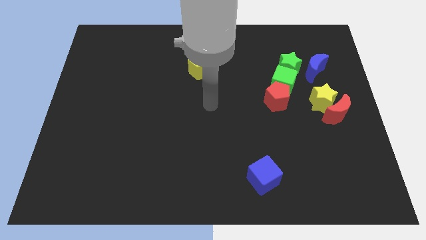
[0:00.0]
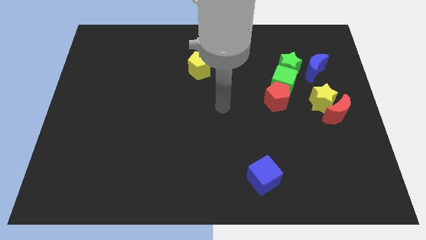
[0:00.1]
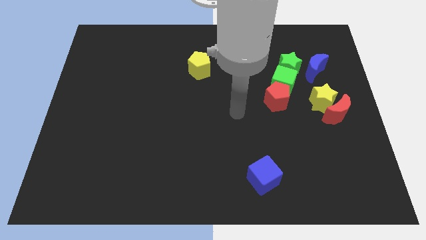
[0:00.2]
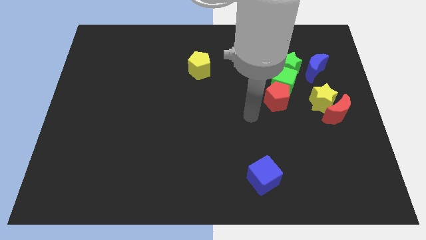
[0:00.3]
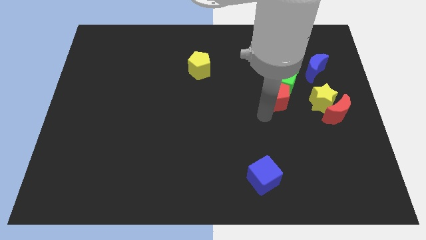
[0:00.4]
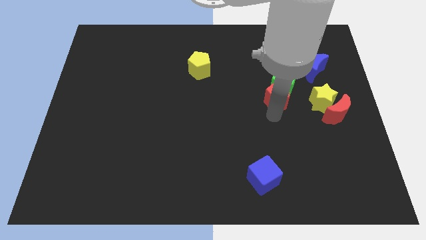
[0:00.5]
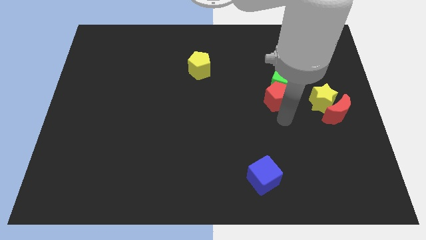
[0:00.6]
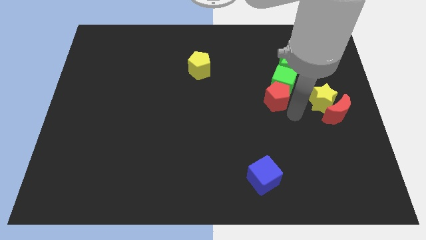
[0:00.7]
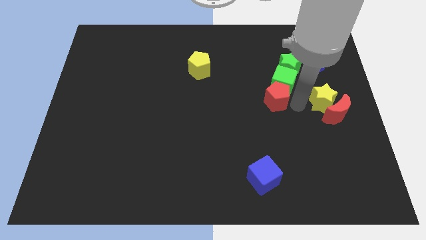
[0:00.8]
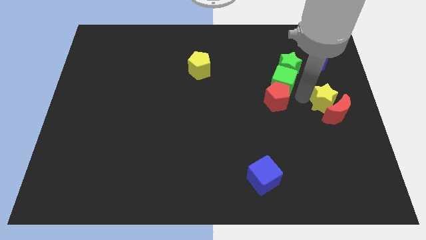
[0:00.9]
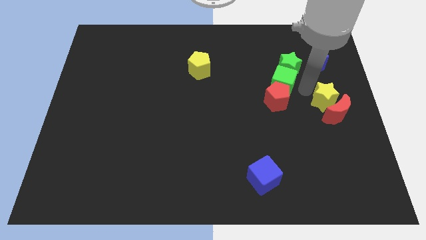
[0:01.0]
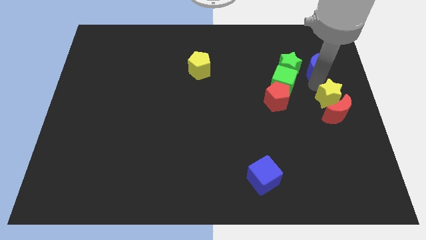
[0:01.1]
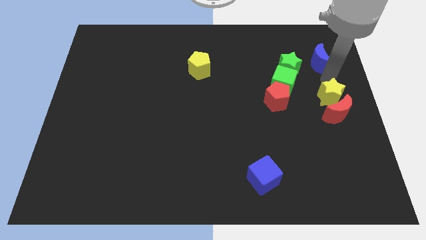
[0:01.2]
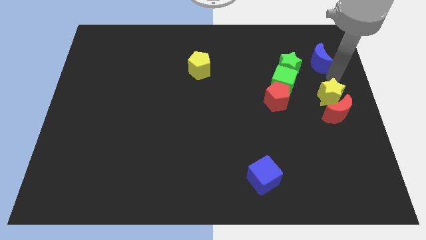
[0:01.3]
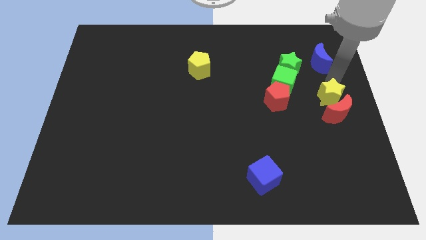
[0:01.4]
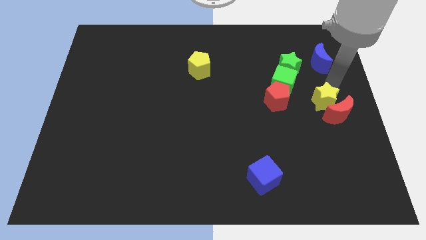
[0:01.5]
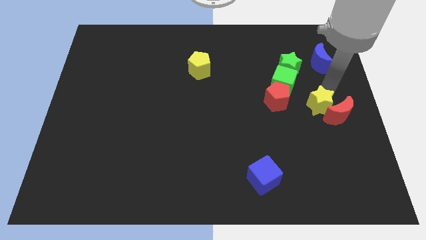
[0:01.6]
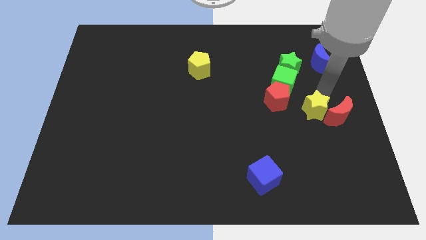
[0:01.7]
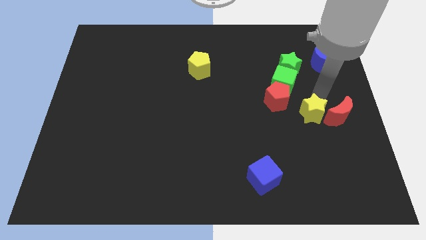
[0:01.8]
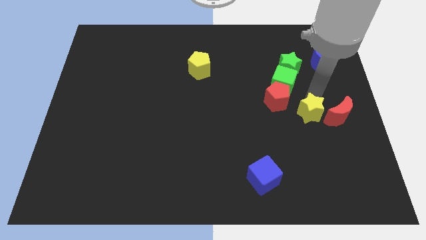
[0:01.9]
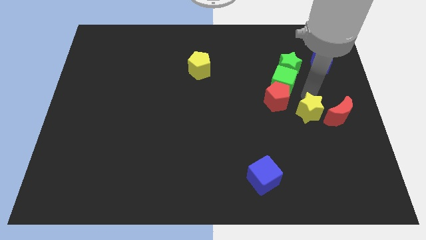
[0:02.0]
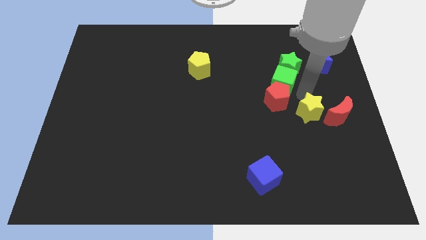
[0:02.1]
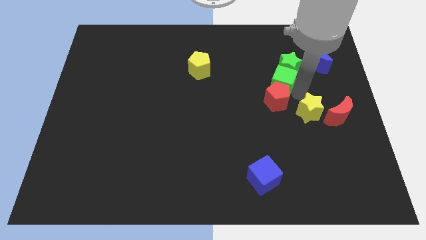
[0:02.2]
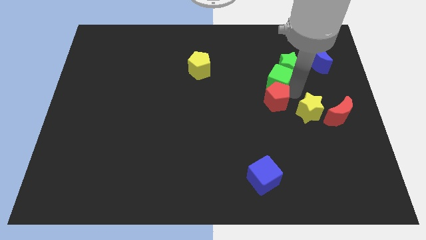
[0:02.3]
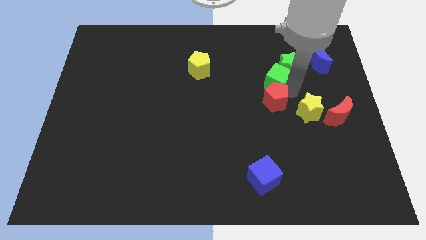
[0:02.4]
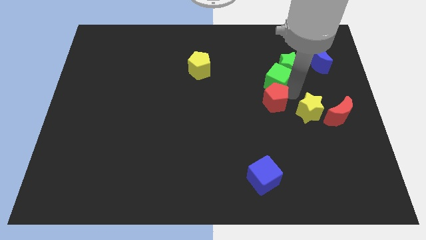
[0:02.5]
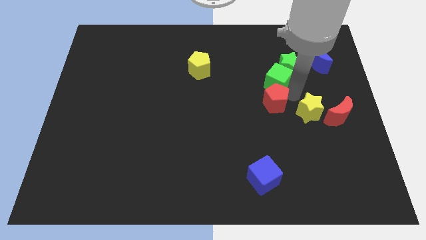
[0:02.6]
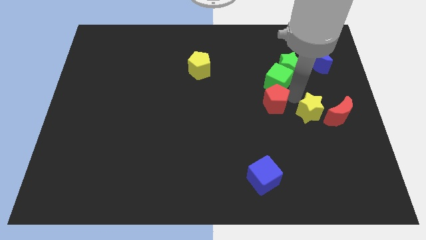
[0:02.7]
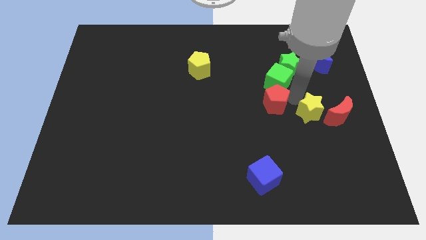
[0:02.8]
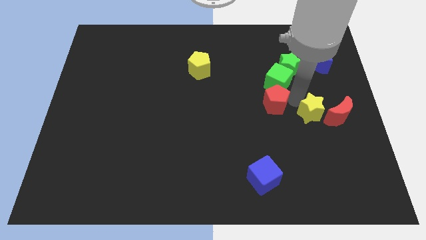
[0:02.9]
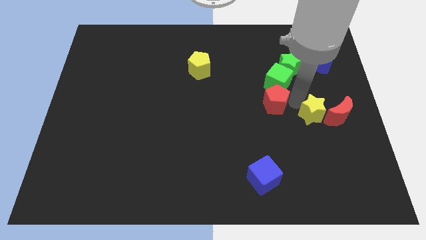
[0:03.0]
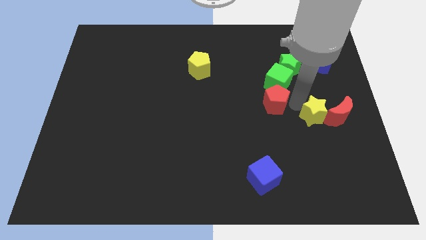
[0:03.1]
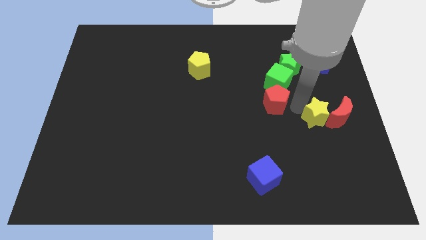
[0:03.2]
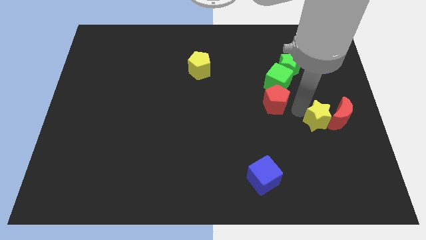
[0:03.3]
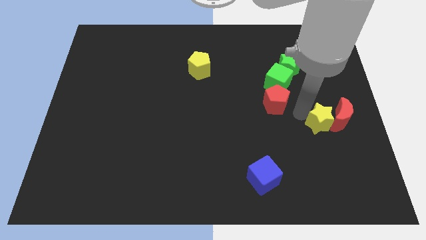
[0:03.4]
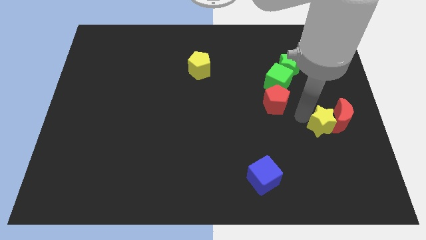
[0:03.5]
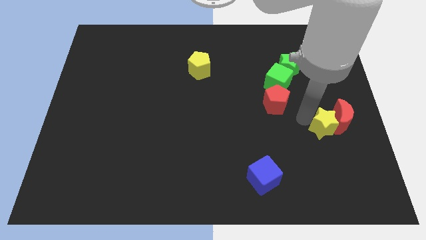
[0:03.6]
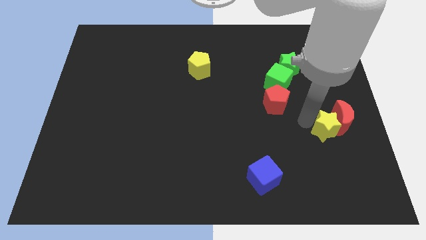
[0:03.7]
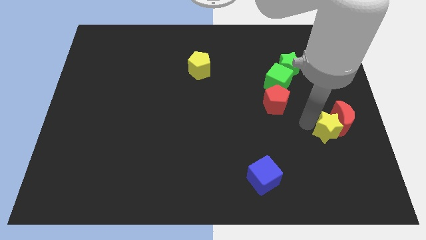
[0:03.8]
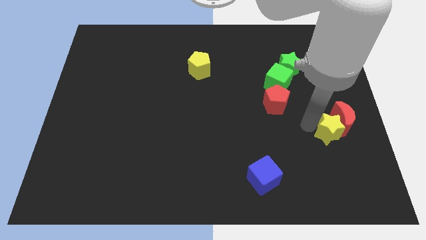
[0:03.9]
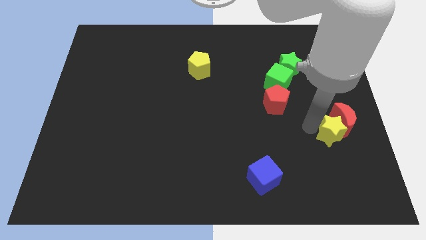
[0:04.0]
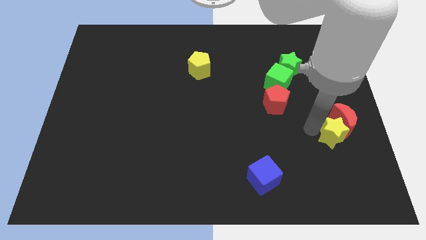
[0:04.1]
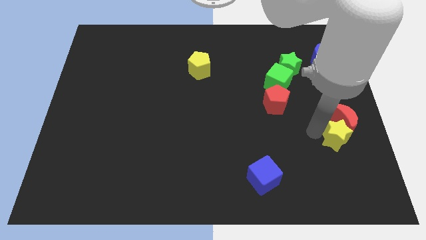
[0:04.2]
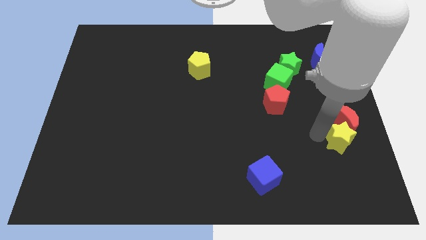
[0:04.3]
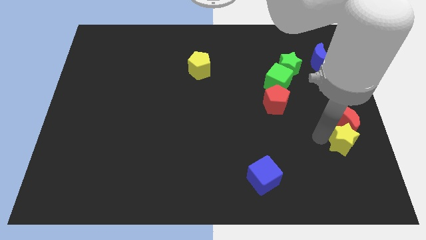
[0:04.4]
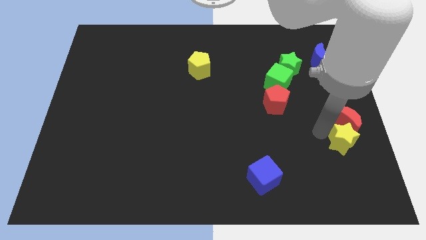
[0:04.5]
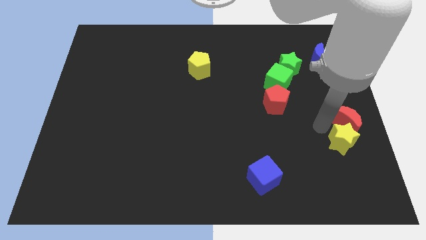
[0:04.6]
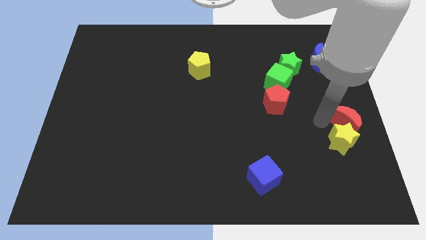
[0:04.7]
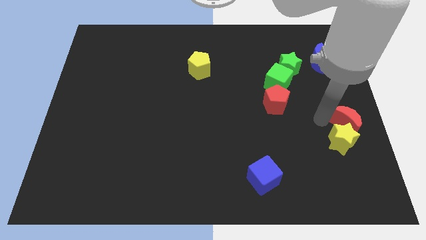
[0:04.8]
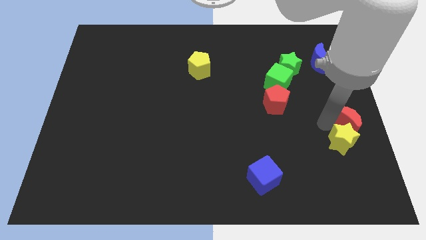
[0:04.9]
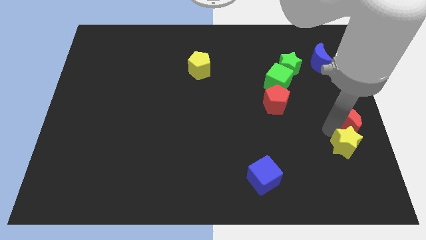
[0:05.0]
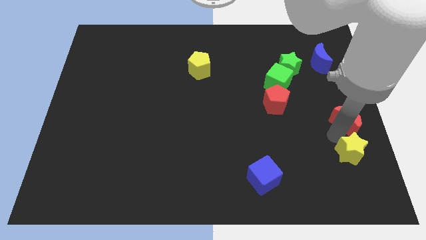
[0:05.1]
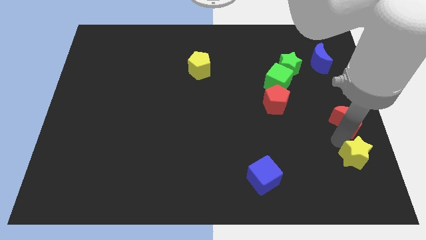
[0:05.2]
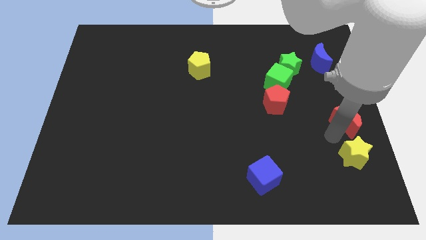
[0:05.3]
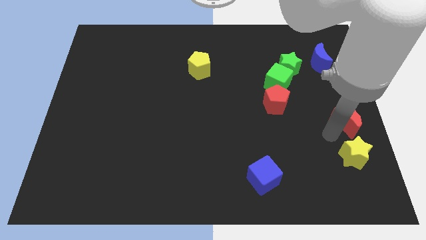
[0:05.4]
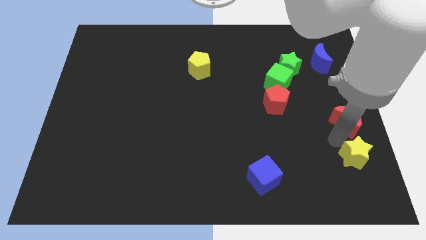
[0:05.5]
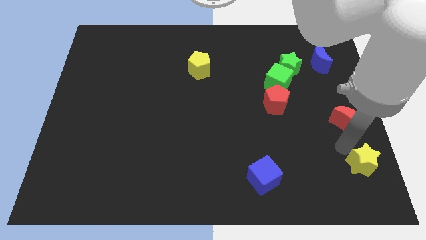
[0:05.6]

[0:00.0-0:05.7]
put the yellow star to the bottom right corner
